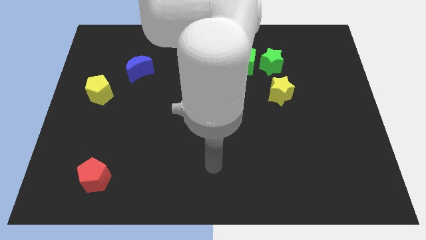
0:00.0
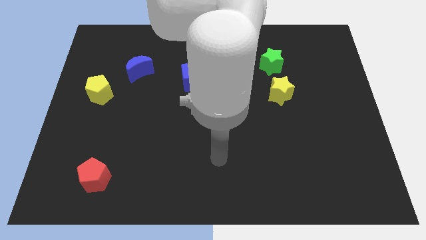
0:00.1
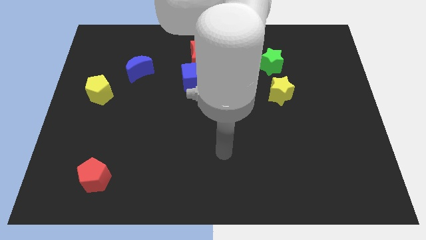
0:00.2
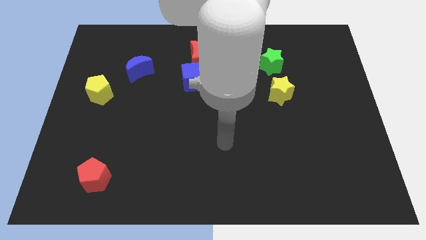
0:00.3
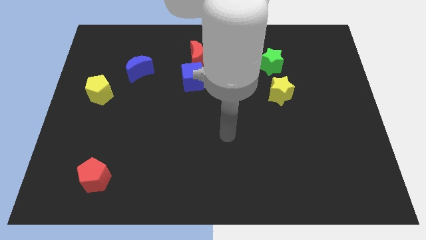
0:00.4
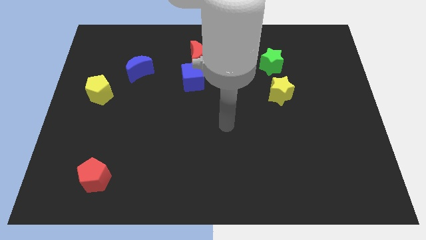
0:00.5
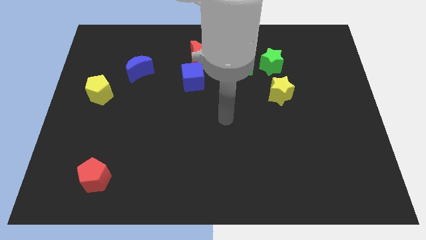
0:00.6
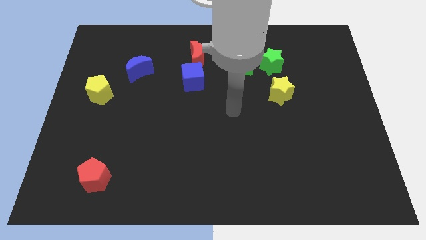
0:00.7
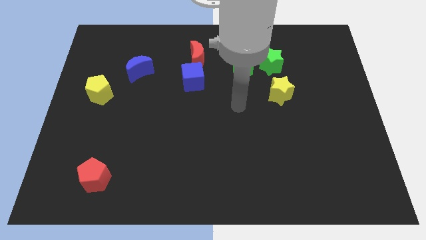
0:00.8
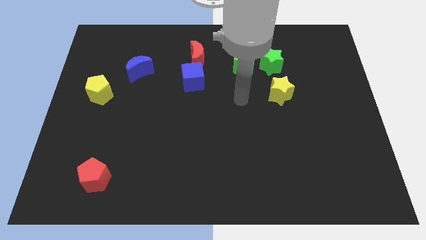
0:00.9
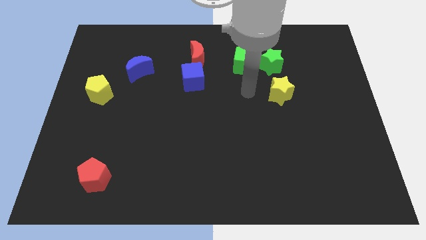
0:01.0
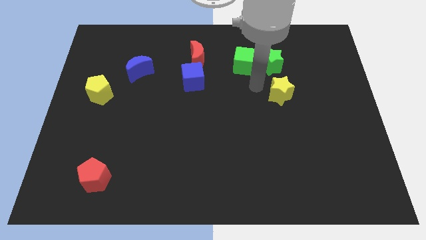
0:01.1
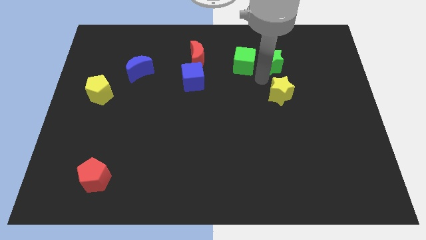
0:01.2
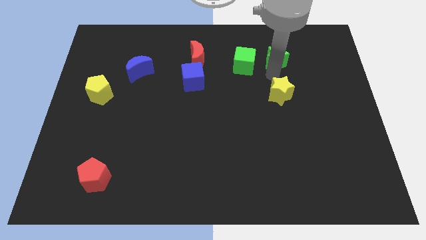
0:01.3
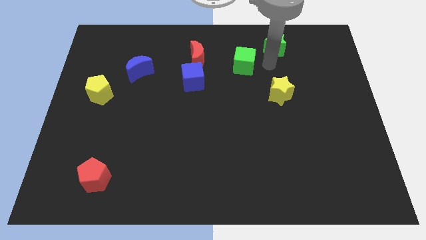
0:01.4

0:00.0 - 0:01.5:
separate the green cube from the green star

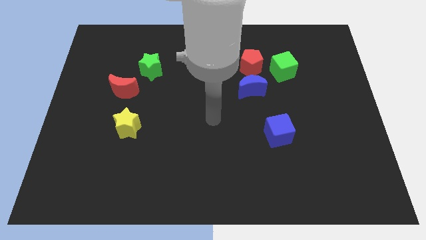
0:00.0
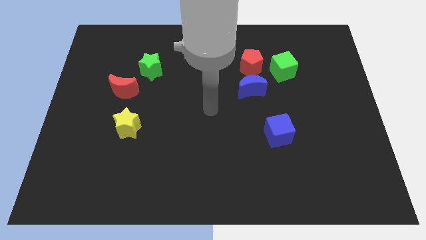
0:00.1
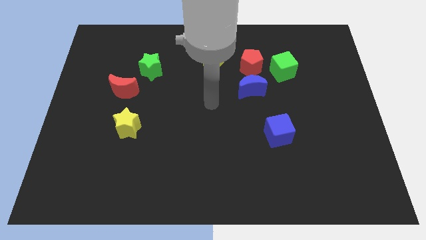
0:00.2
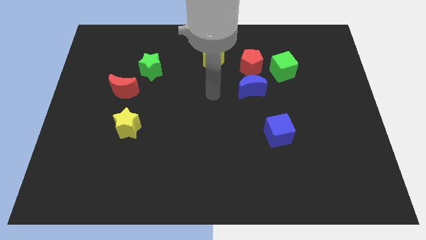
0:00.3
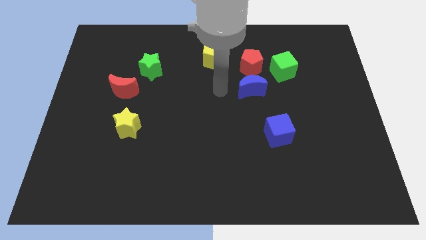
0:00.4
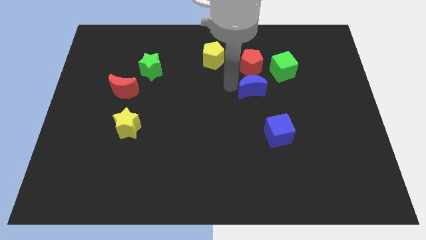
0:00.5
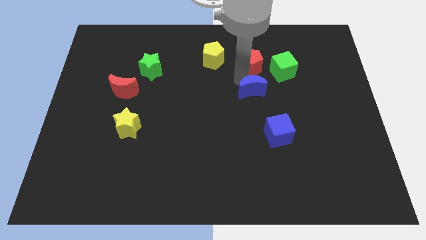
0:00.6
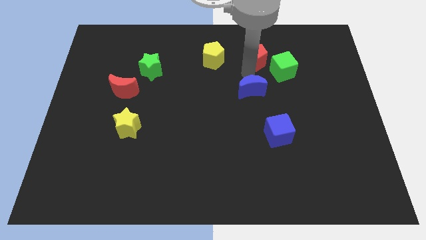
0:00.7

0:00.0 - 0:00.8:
separate the blue moon from the red pentagon

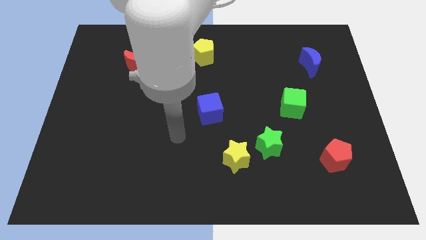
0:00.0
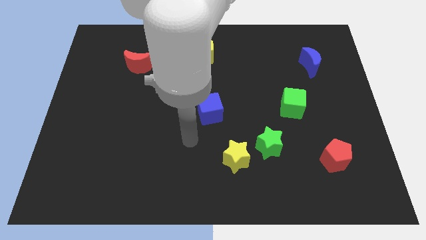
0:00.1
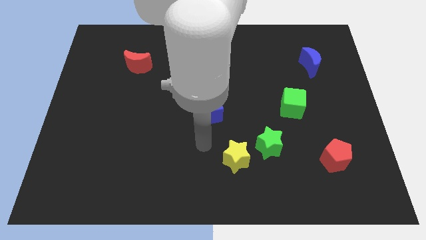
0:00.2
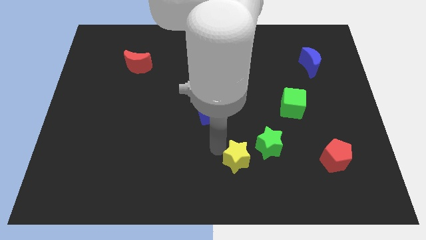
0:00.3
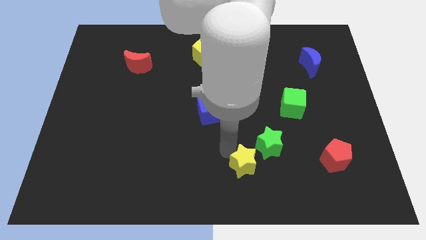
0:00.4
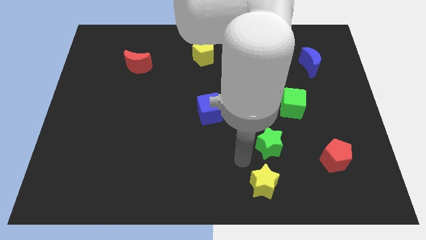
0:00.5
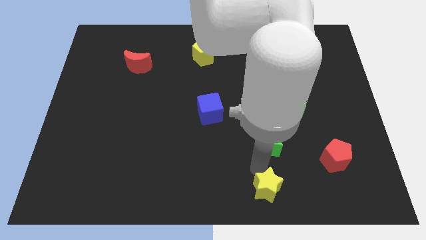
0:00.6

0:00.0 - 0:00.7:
move the green star away from the yellow star

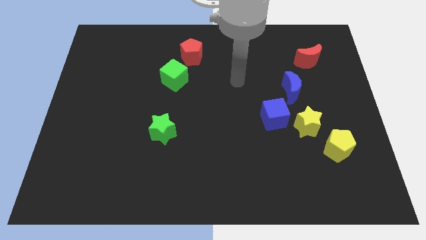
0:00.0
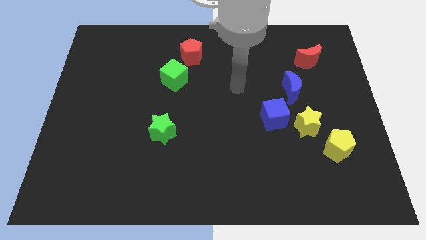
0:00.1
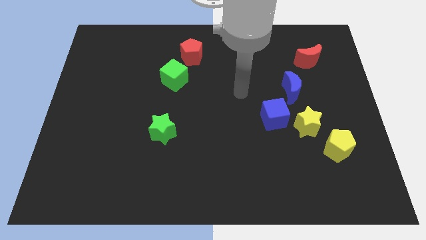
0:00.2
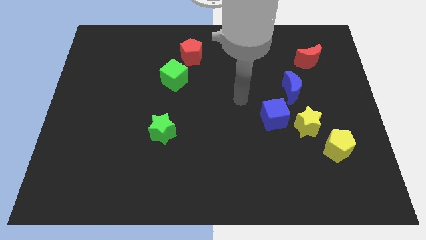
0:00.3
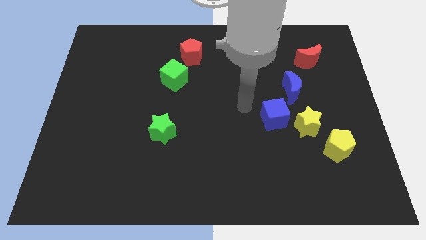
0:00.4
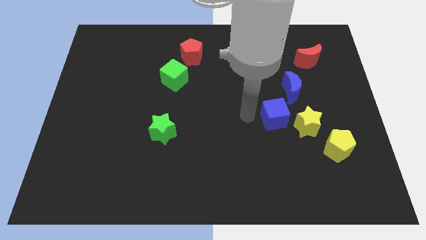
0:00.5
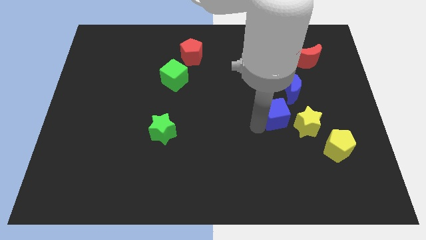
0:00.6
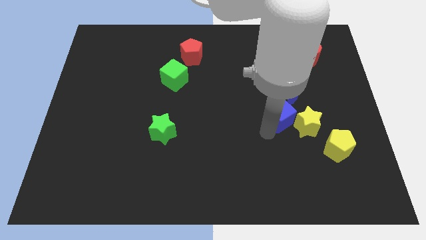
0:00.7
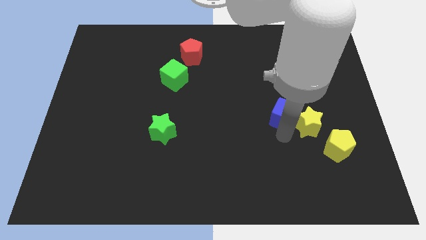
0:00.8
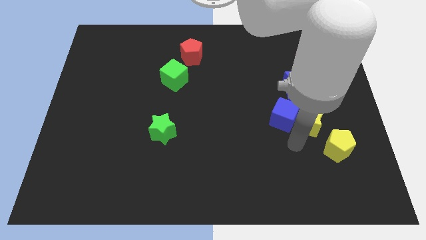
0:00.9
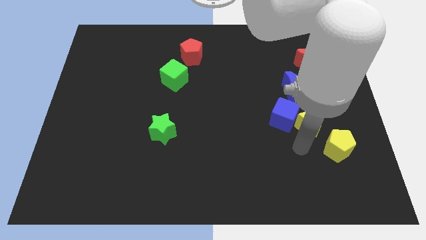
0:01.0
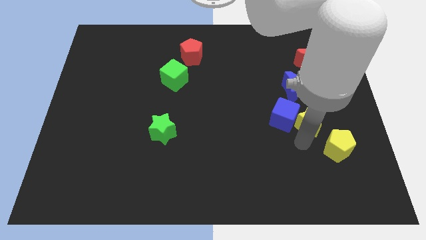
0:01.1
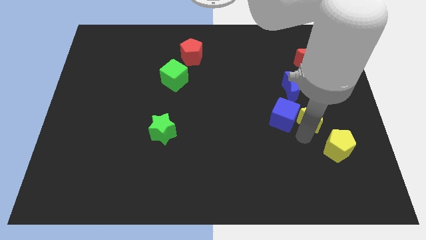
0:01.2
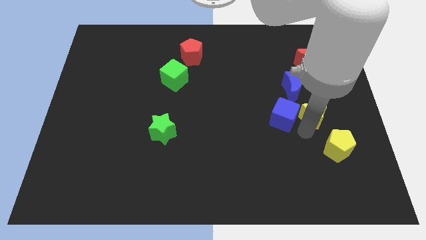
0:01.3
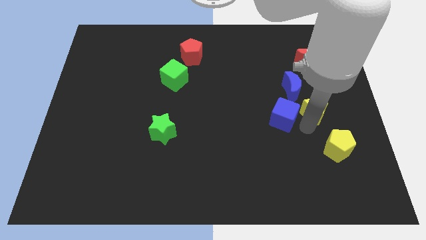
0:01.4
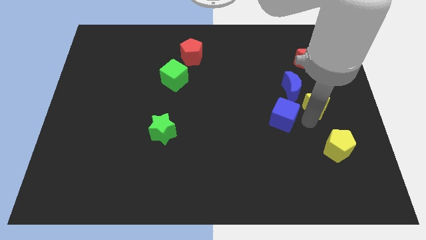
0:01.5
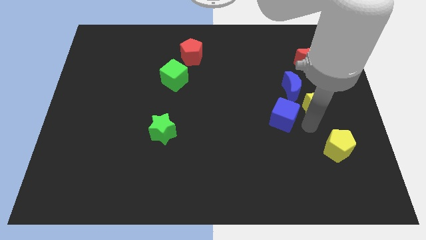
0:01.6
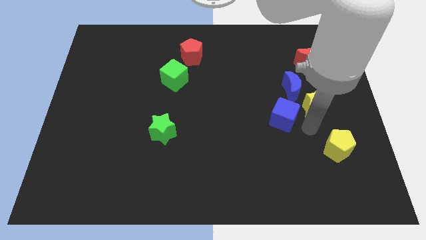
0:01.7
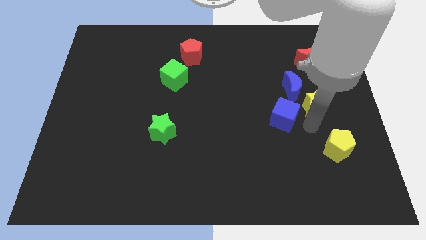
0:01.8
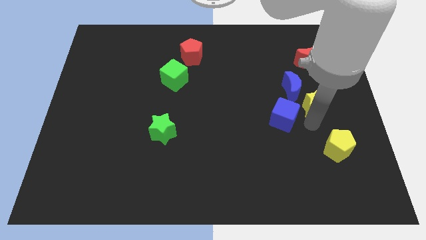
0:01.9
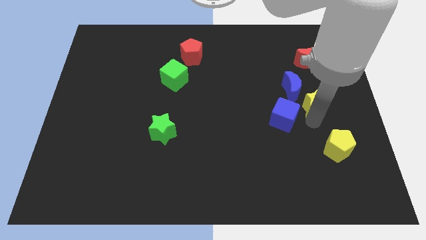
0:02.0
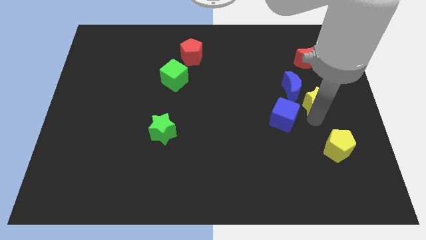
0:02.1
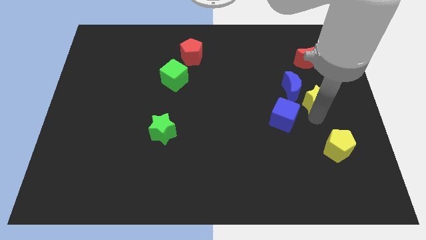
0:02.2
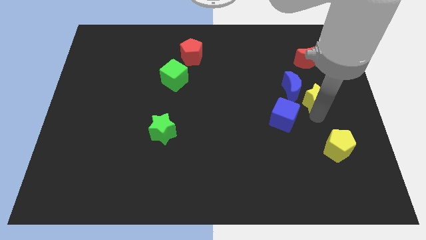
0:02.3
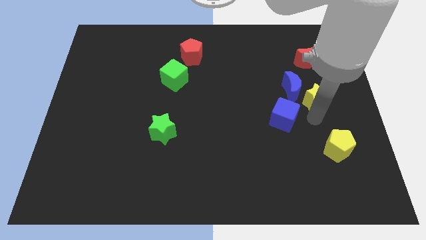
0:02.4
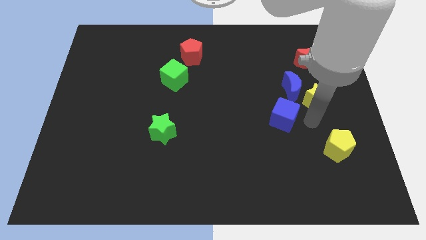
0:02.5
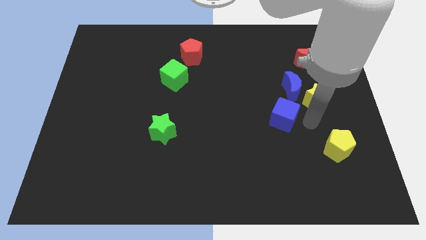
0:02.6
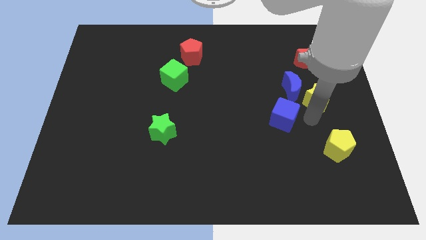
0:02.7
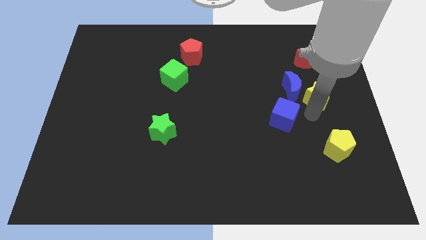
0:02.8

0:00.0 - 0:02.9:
pull the yellow star apart from the blue cube and yellow pentagon

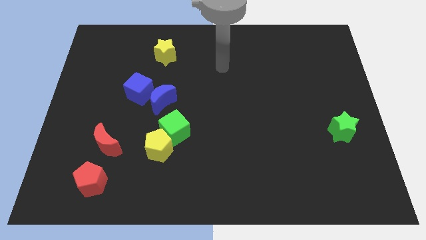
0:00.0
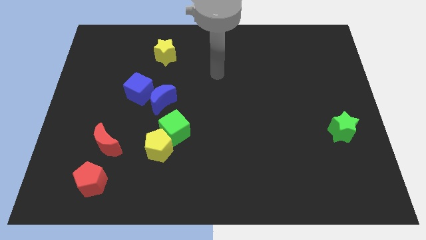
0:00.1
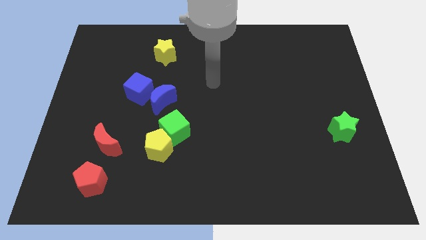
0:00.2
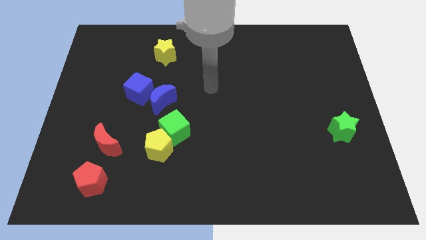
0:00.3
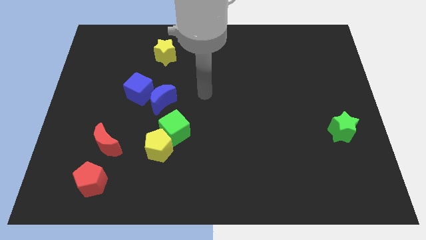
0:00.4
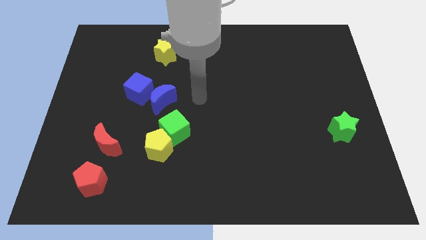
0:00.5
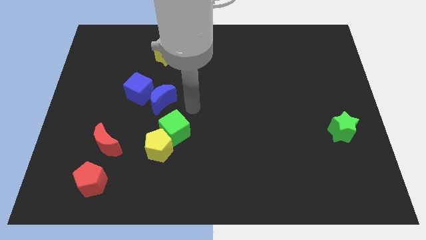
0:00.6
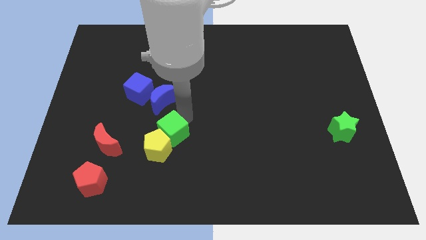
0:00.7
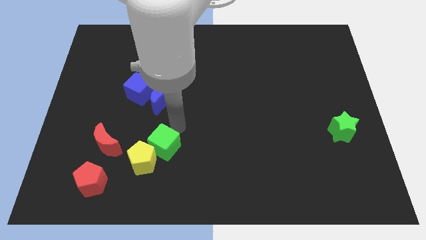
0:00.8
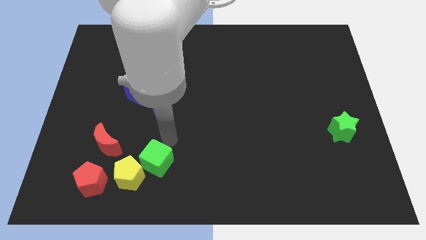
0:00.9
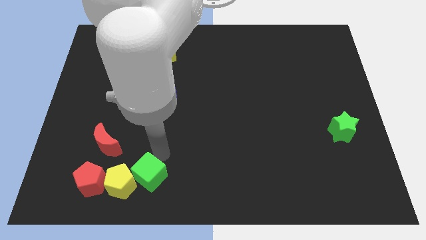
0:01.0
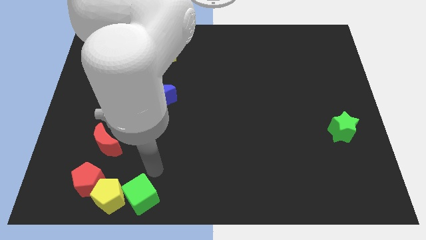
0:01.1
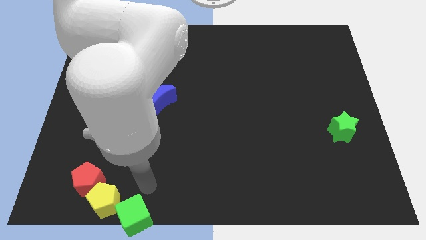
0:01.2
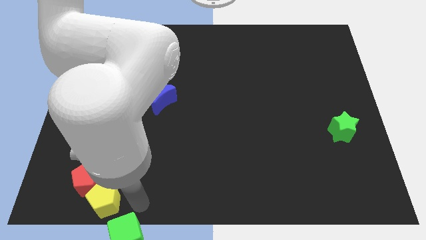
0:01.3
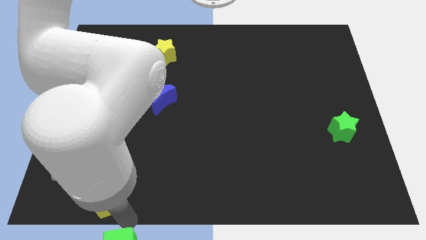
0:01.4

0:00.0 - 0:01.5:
move the yellow pentagon away from the green cube

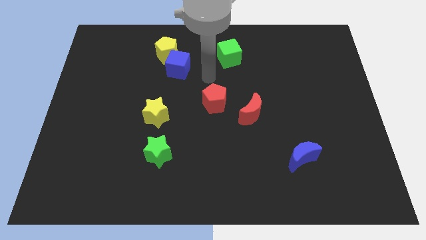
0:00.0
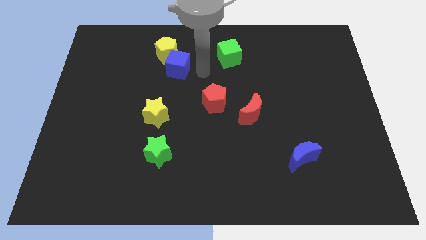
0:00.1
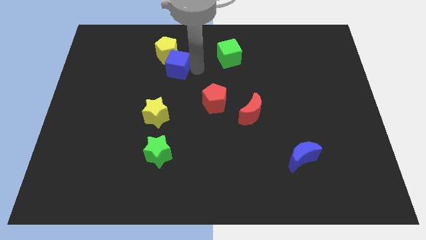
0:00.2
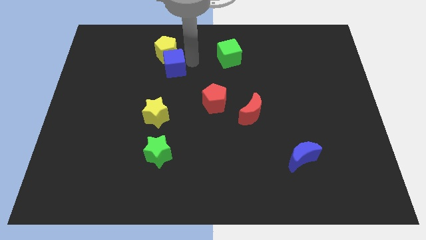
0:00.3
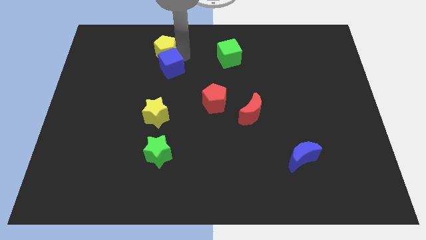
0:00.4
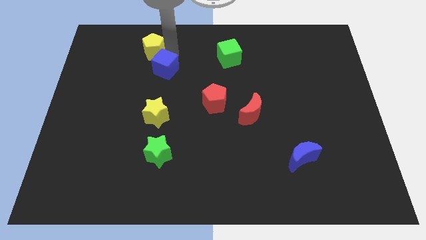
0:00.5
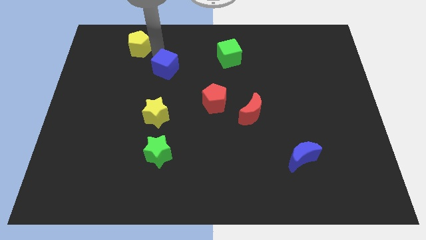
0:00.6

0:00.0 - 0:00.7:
pull the blue cube apart from the yellow pentagon

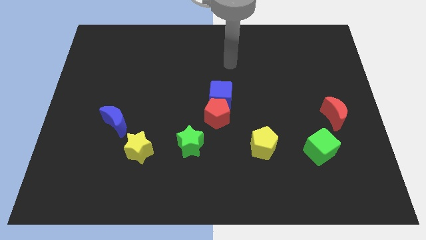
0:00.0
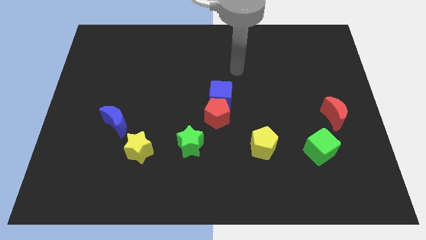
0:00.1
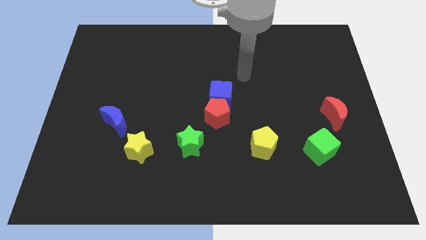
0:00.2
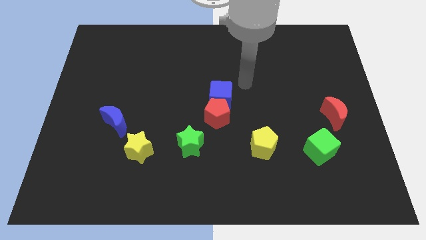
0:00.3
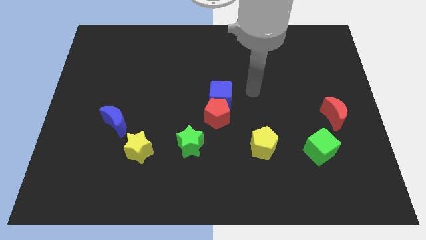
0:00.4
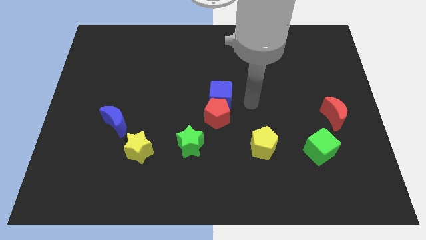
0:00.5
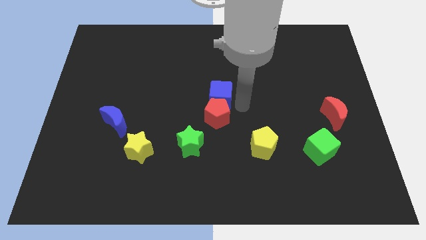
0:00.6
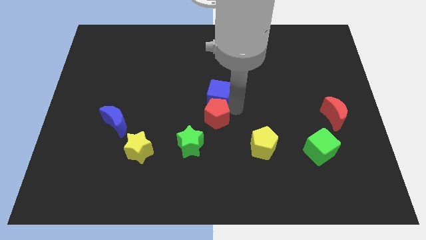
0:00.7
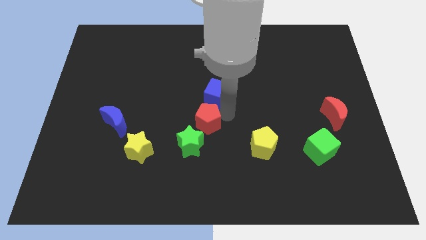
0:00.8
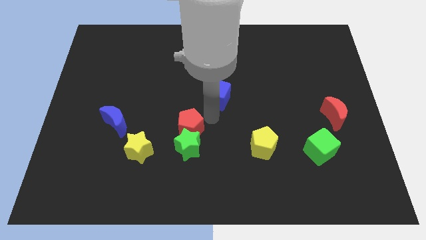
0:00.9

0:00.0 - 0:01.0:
pull the blue cube apart from the red pentagon

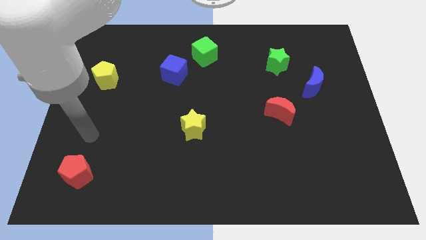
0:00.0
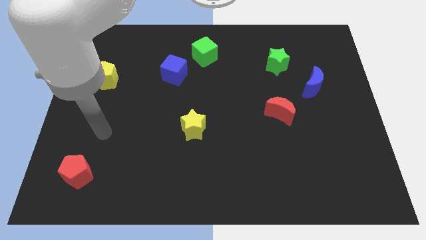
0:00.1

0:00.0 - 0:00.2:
separate the blue cube from the green cube
